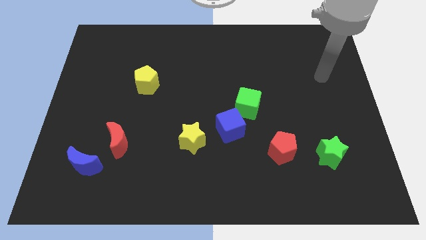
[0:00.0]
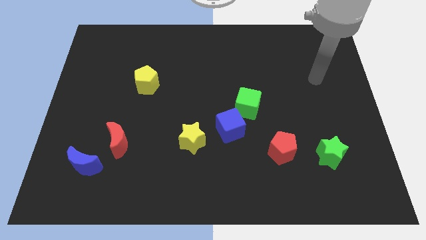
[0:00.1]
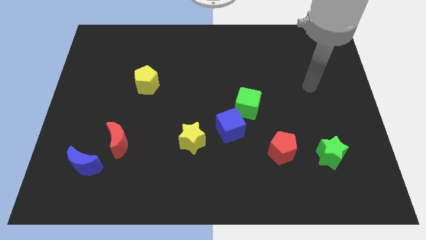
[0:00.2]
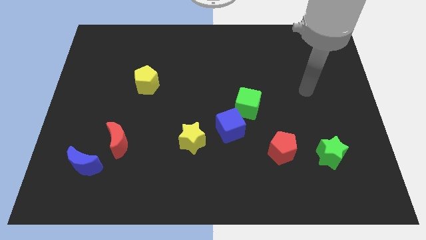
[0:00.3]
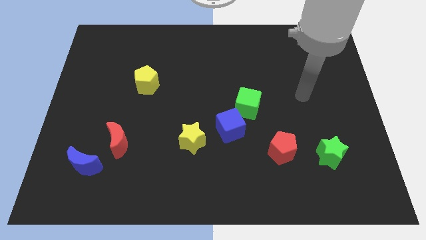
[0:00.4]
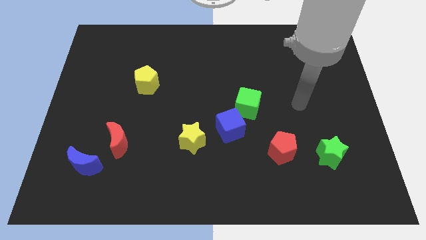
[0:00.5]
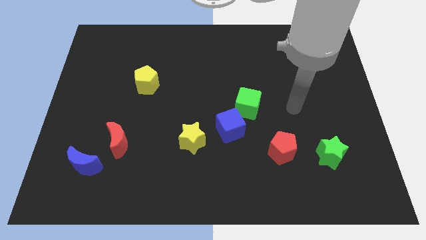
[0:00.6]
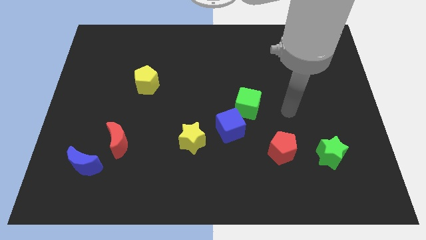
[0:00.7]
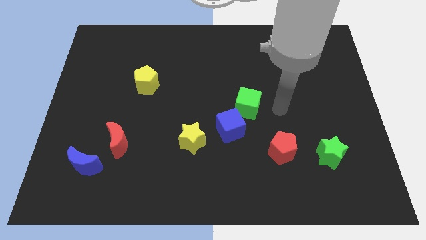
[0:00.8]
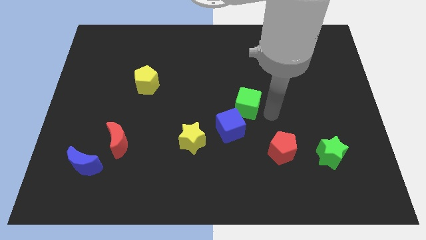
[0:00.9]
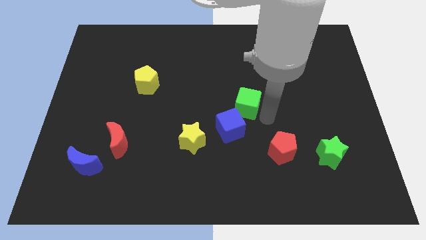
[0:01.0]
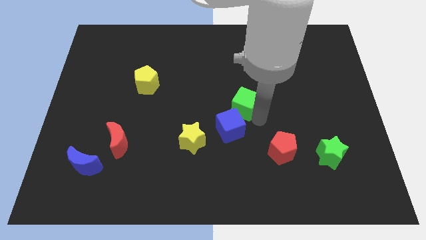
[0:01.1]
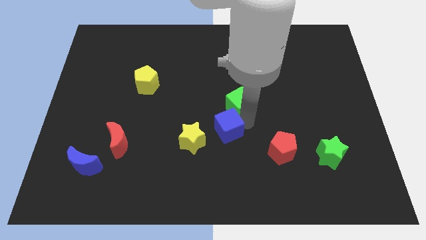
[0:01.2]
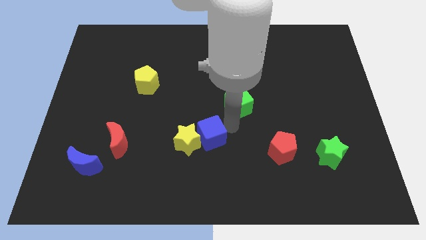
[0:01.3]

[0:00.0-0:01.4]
pull the green cube apart from the blue cube

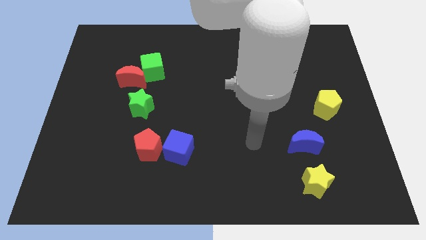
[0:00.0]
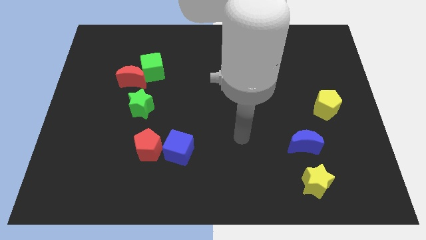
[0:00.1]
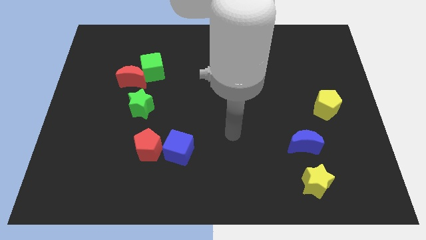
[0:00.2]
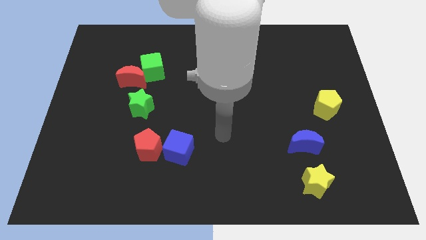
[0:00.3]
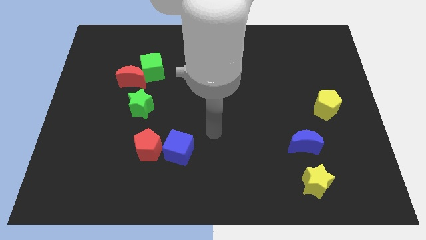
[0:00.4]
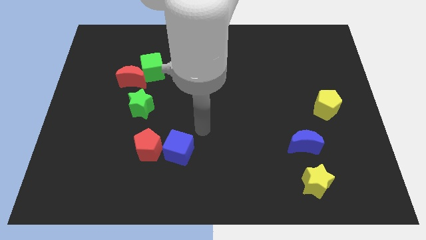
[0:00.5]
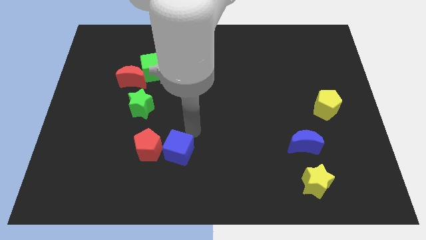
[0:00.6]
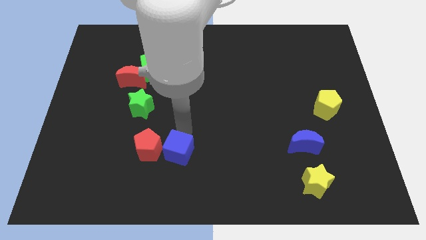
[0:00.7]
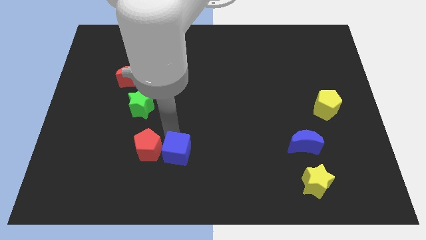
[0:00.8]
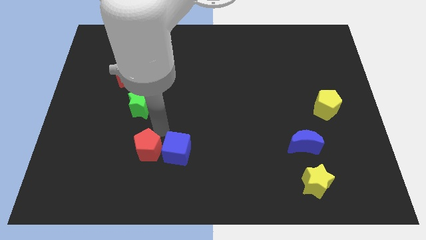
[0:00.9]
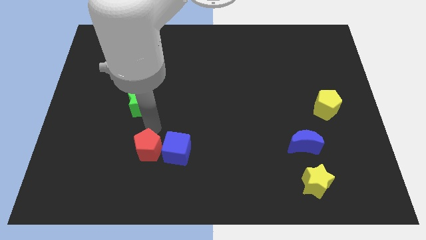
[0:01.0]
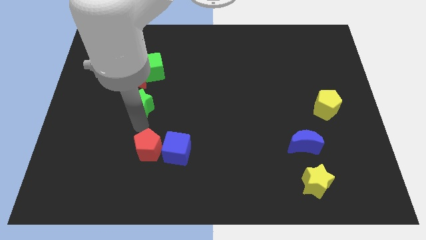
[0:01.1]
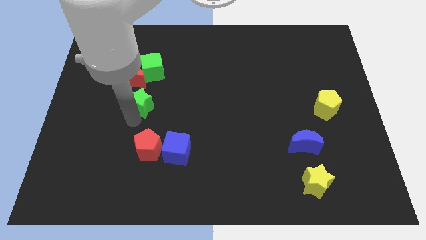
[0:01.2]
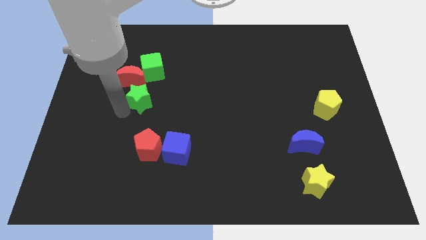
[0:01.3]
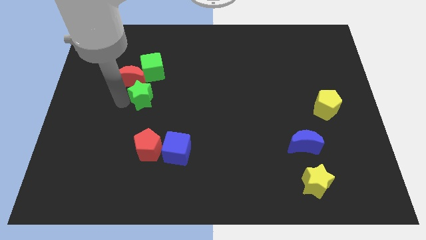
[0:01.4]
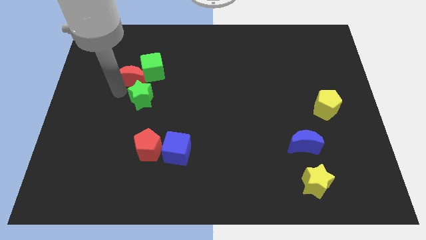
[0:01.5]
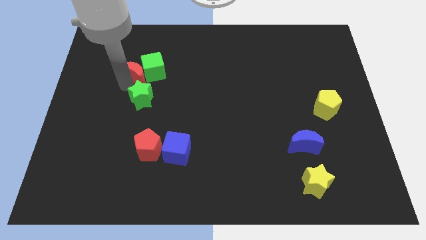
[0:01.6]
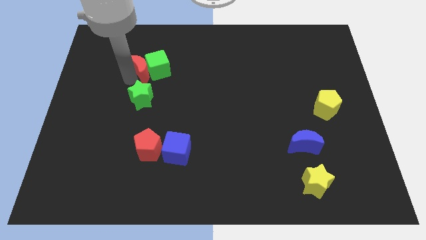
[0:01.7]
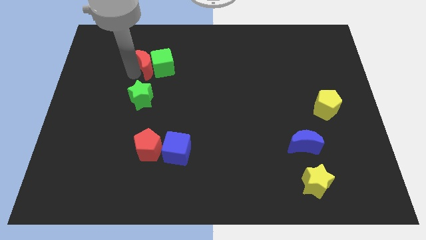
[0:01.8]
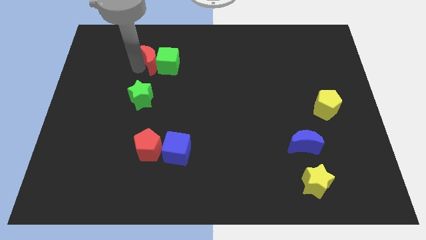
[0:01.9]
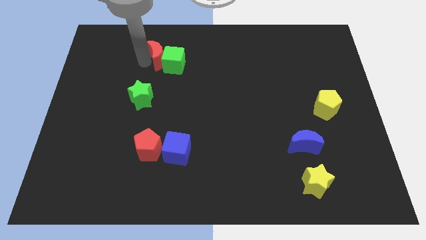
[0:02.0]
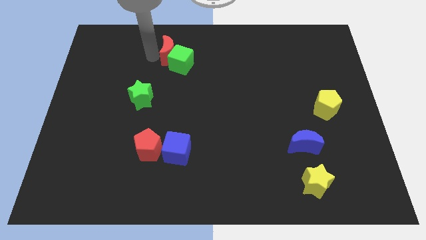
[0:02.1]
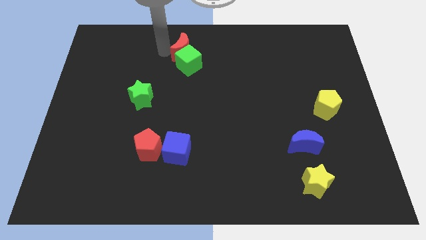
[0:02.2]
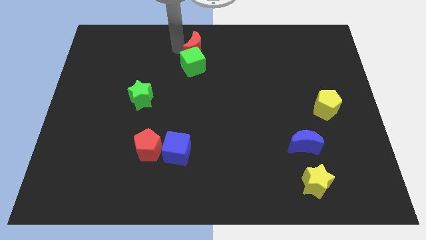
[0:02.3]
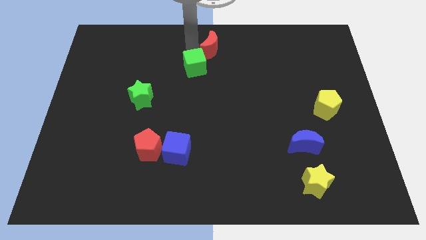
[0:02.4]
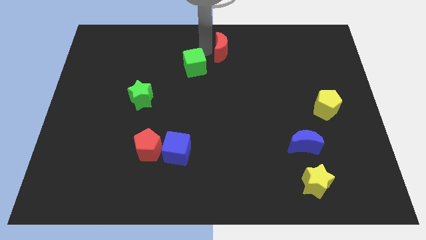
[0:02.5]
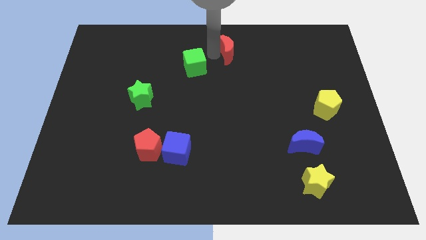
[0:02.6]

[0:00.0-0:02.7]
move the green cube away from the red moon

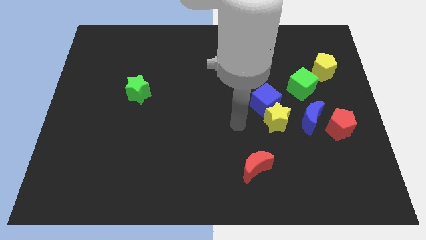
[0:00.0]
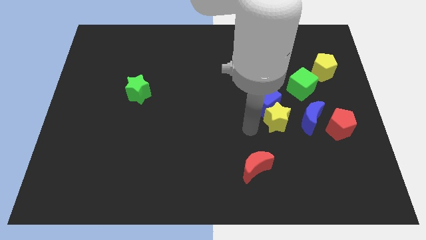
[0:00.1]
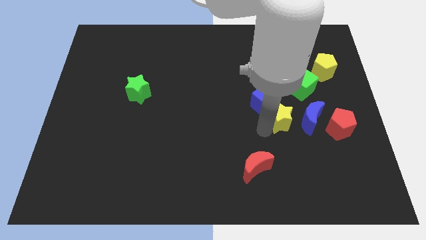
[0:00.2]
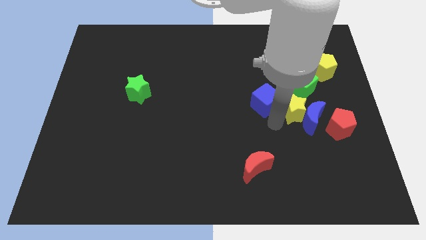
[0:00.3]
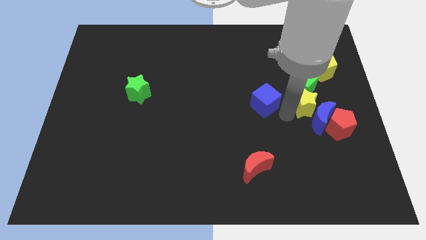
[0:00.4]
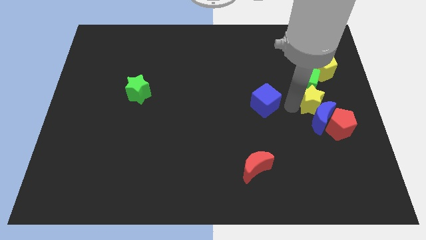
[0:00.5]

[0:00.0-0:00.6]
move the blue cube away from the yellow star

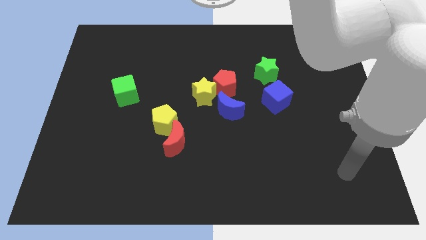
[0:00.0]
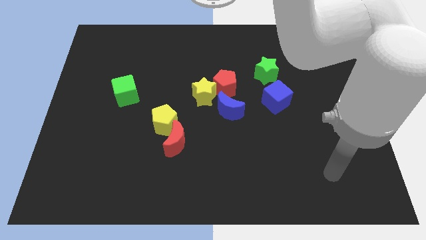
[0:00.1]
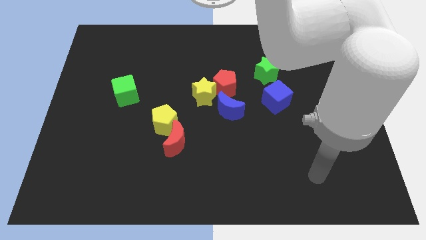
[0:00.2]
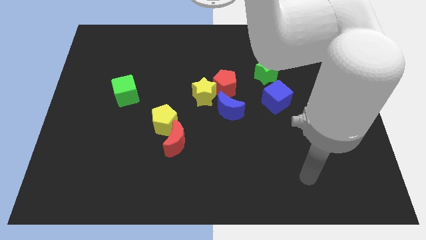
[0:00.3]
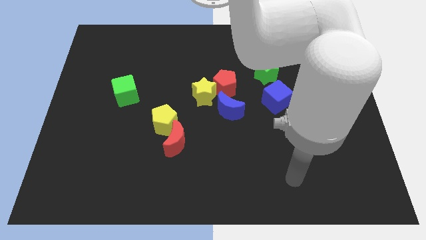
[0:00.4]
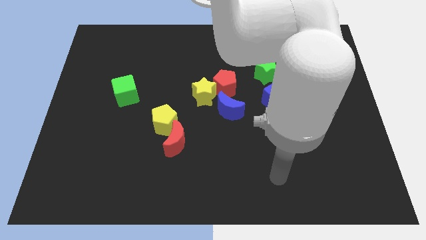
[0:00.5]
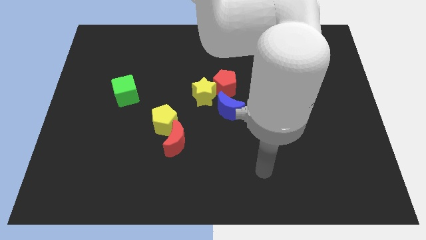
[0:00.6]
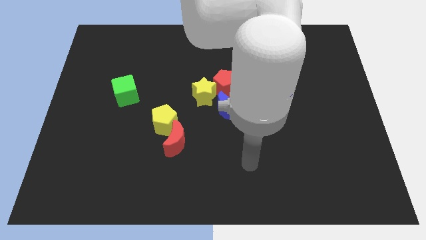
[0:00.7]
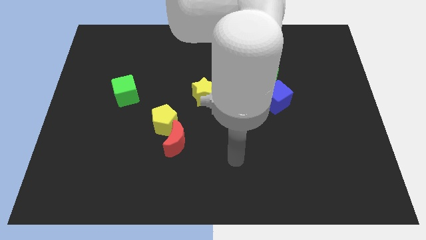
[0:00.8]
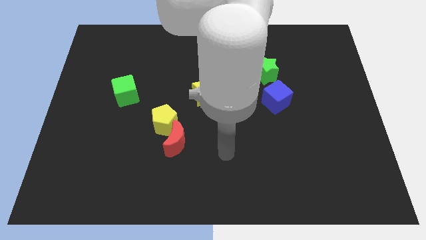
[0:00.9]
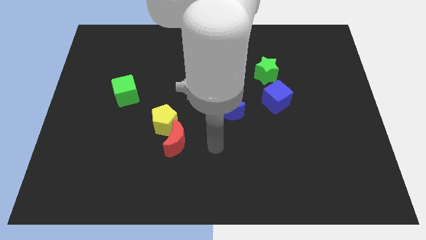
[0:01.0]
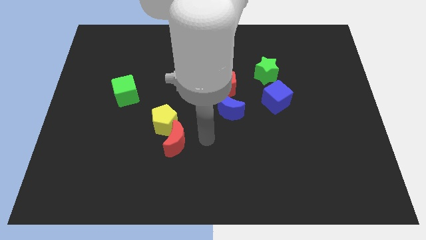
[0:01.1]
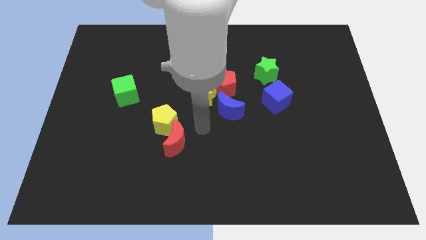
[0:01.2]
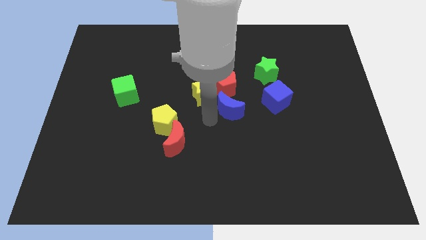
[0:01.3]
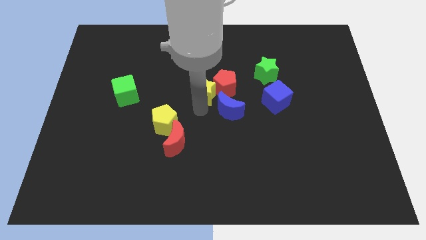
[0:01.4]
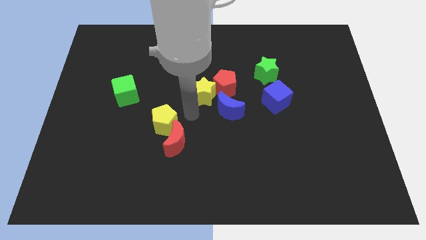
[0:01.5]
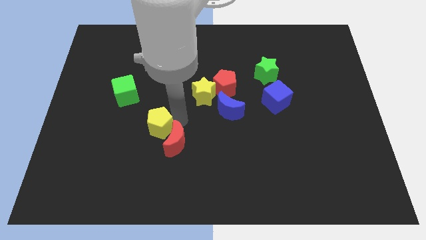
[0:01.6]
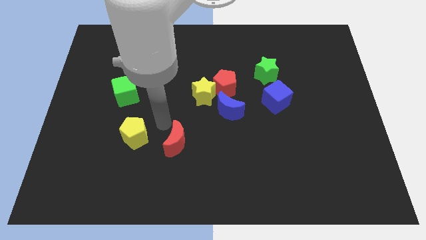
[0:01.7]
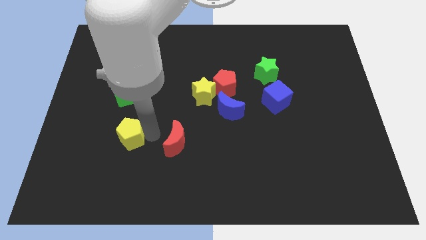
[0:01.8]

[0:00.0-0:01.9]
separate the red moon from the yellow pentagon

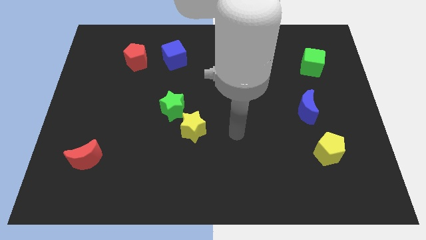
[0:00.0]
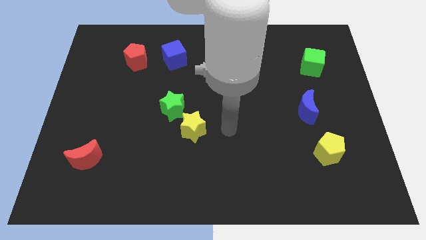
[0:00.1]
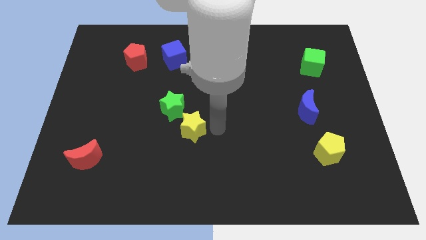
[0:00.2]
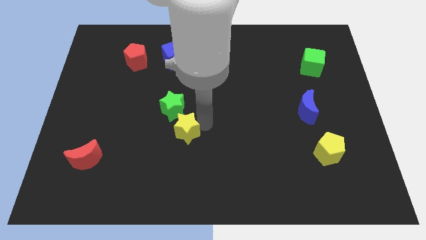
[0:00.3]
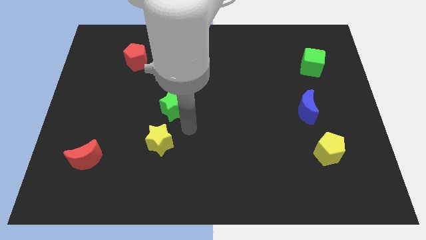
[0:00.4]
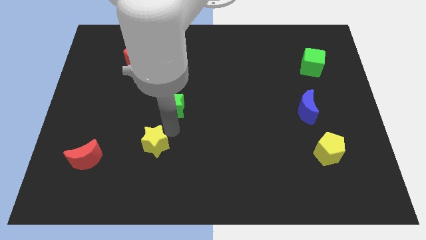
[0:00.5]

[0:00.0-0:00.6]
pull the green star apart from the yellow star

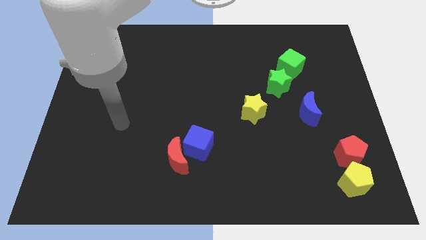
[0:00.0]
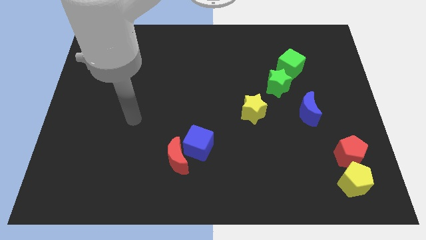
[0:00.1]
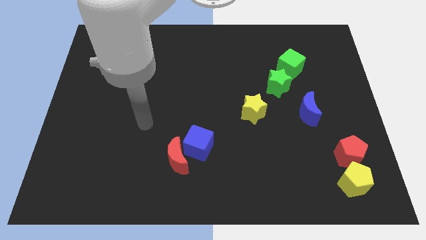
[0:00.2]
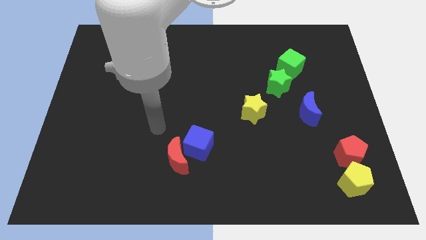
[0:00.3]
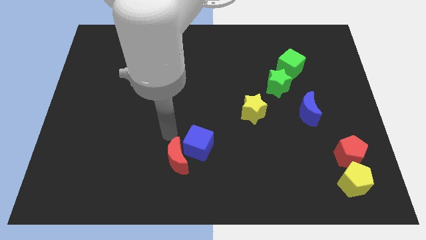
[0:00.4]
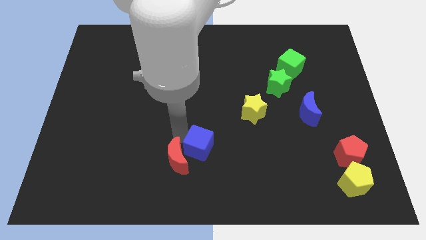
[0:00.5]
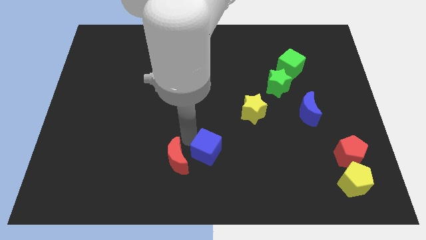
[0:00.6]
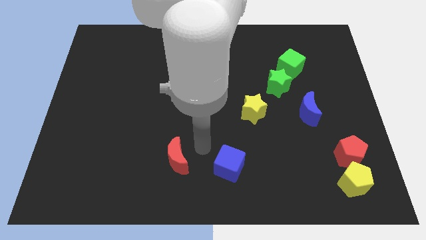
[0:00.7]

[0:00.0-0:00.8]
move the red moon away from the blue cube

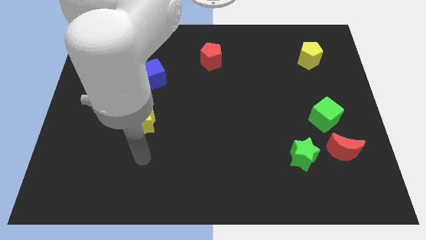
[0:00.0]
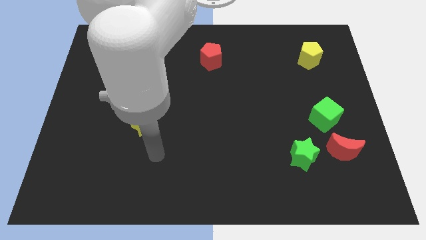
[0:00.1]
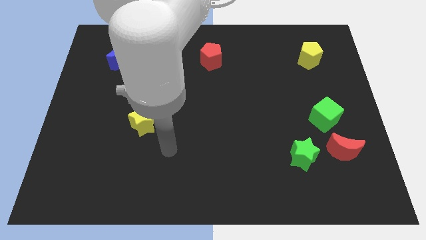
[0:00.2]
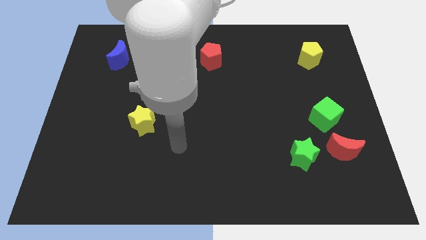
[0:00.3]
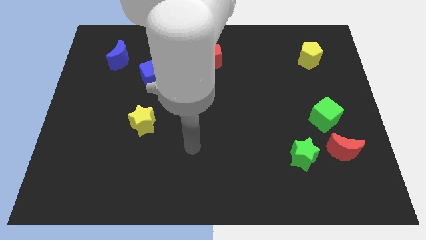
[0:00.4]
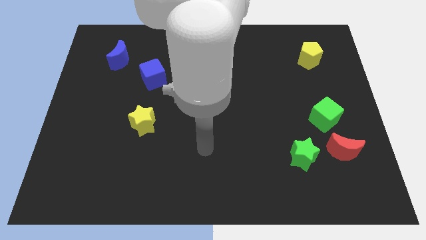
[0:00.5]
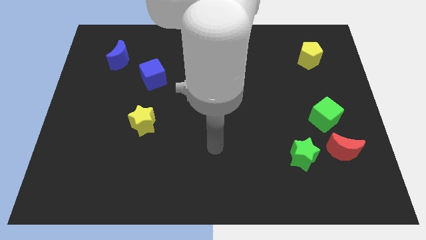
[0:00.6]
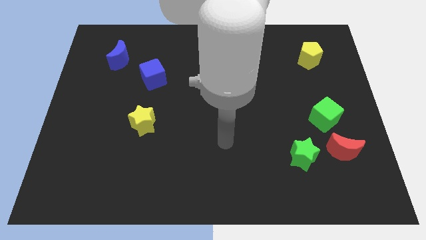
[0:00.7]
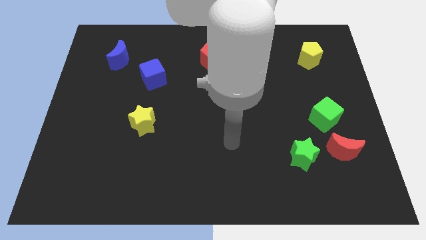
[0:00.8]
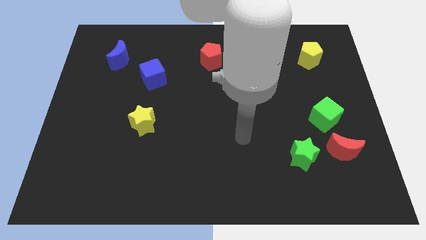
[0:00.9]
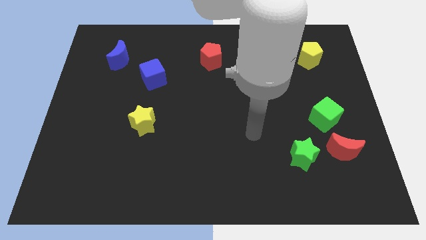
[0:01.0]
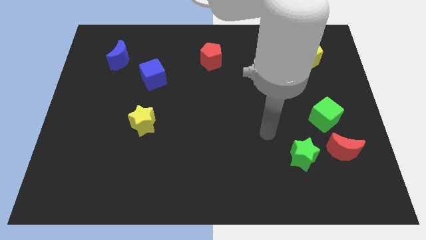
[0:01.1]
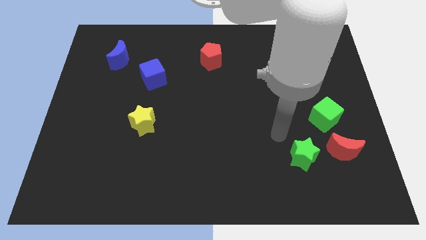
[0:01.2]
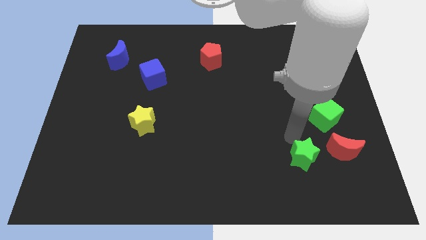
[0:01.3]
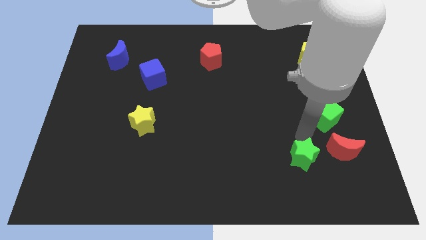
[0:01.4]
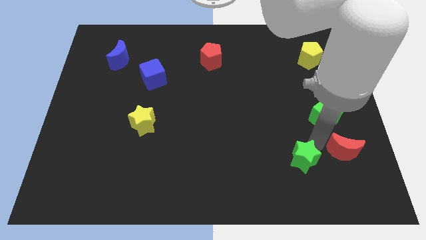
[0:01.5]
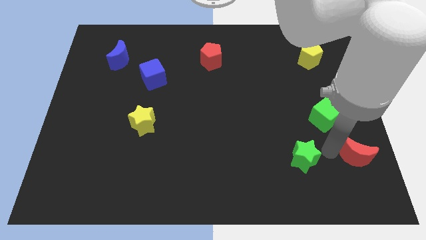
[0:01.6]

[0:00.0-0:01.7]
move the green star away from the red moon
